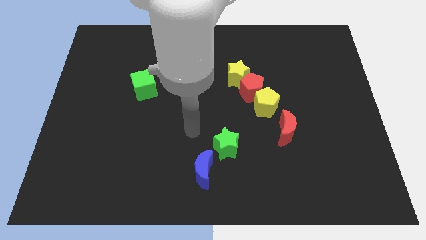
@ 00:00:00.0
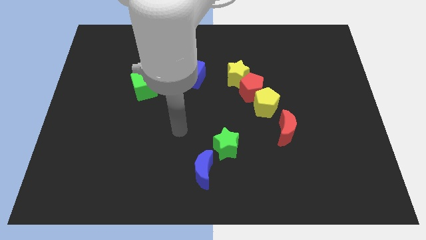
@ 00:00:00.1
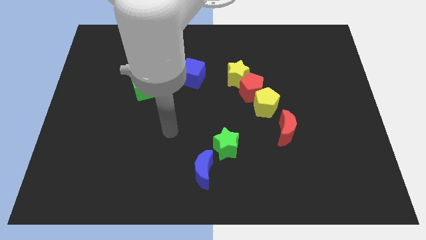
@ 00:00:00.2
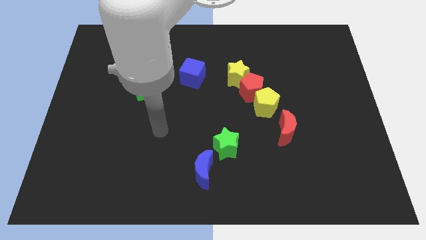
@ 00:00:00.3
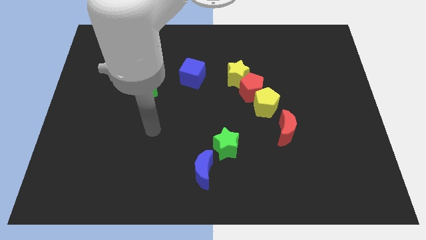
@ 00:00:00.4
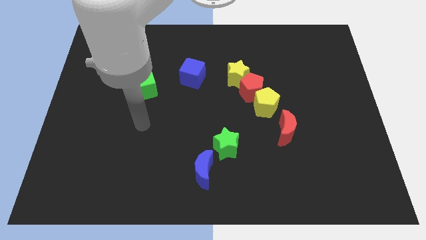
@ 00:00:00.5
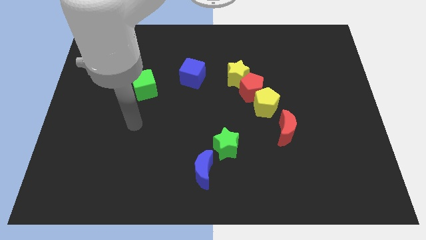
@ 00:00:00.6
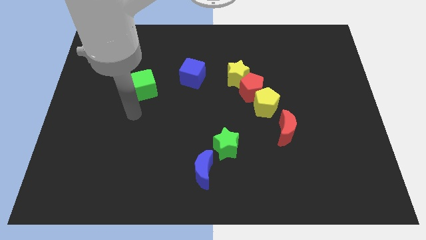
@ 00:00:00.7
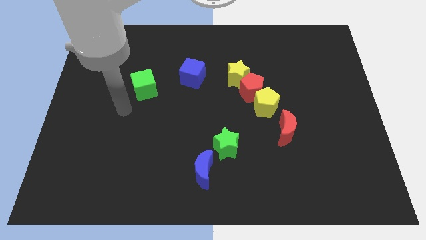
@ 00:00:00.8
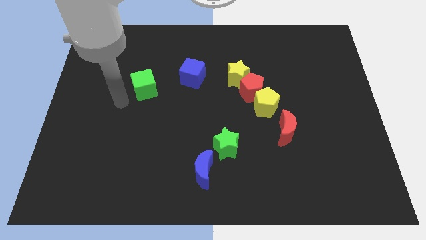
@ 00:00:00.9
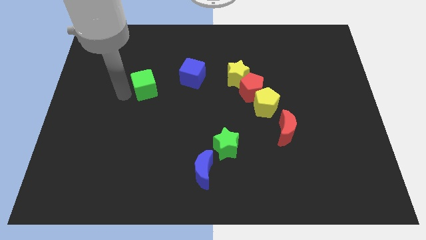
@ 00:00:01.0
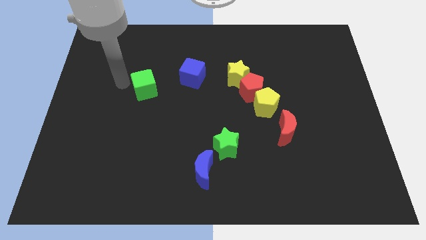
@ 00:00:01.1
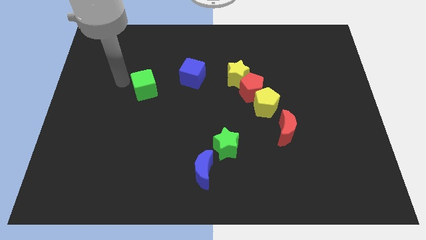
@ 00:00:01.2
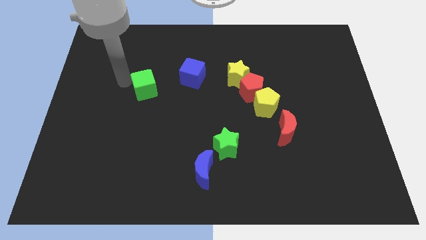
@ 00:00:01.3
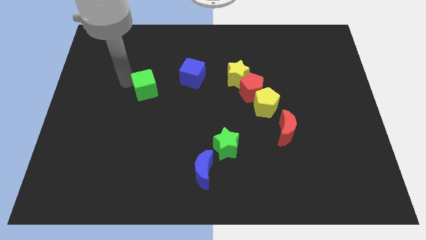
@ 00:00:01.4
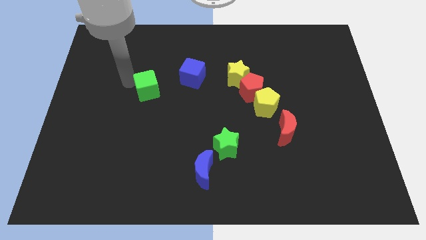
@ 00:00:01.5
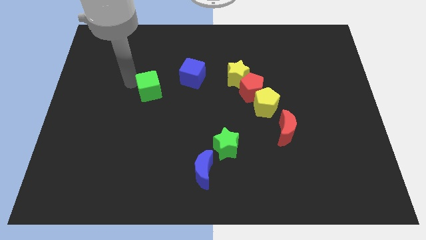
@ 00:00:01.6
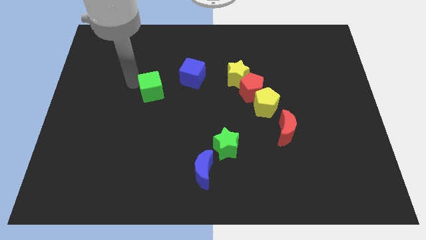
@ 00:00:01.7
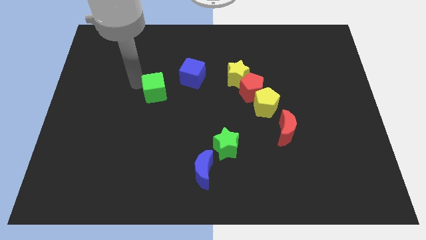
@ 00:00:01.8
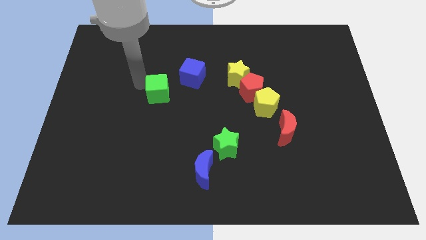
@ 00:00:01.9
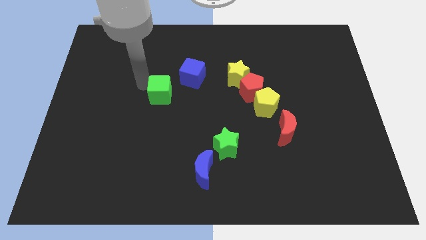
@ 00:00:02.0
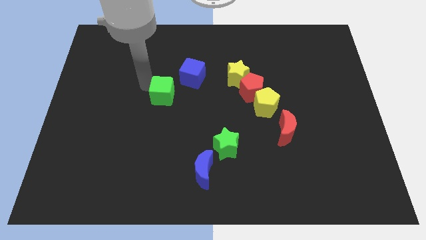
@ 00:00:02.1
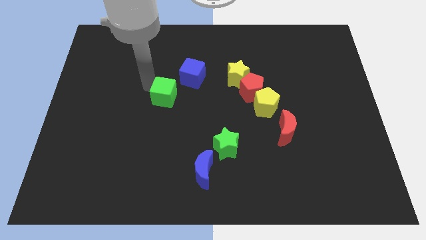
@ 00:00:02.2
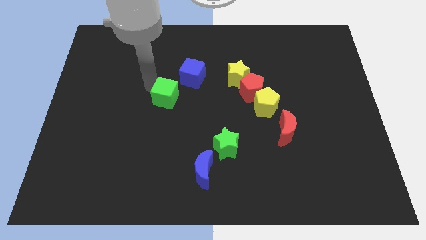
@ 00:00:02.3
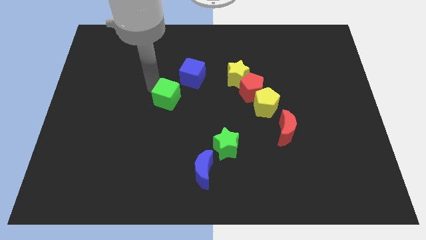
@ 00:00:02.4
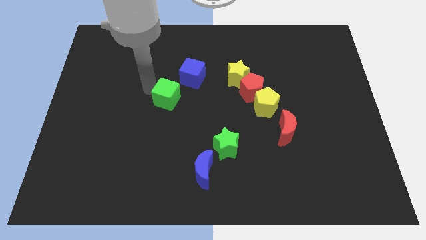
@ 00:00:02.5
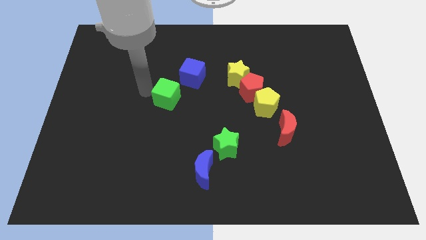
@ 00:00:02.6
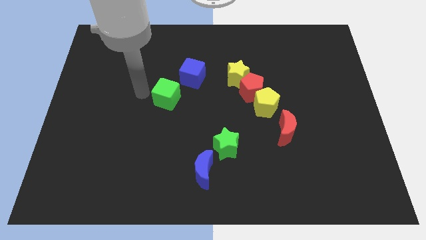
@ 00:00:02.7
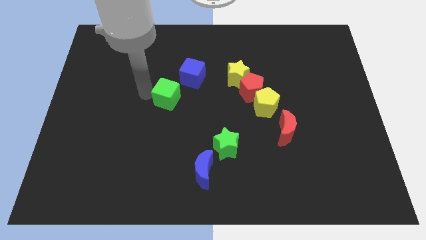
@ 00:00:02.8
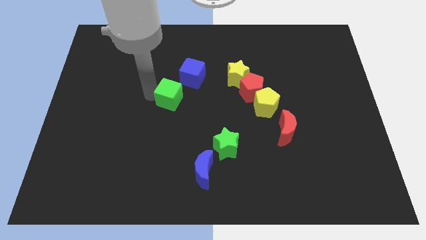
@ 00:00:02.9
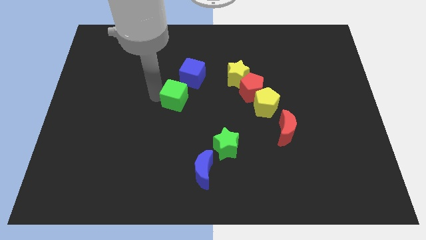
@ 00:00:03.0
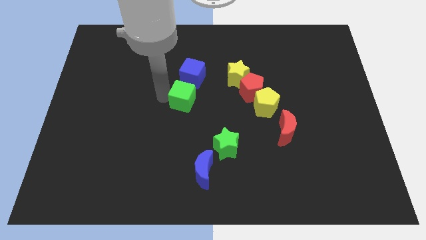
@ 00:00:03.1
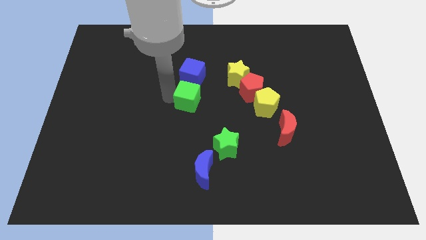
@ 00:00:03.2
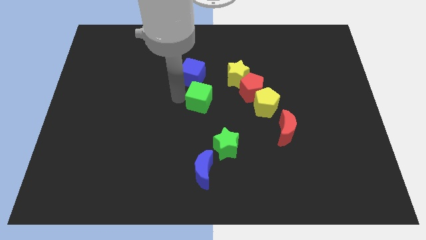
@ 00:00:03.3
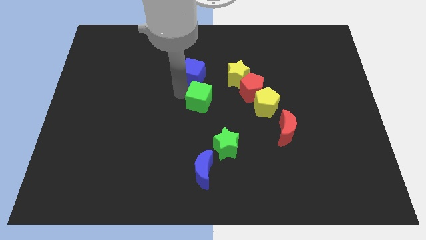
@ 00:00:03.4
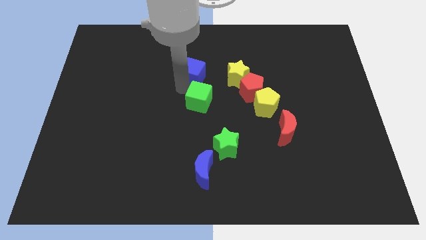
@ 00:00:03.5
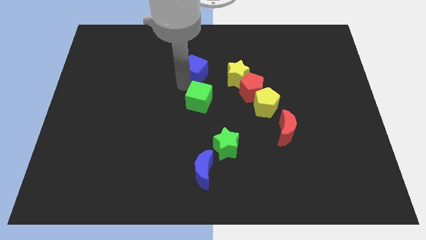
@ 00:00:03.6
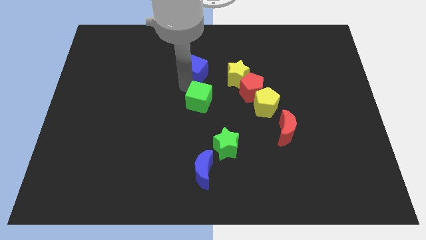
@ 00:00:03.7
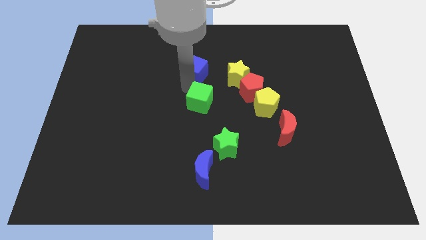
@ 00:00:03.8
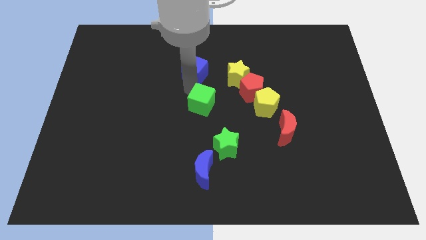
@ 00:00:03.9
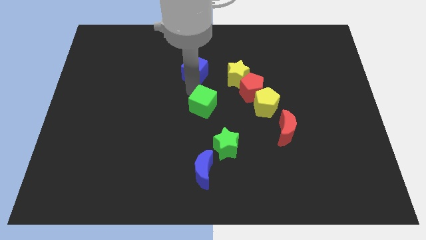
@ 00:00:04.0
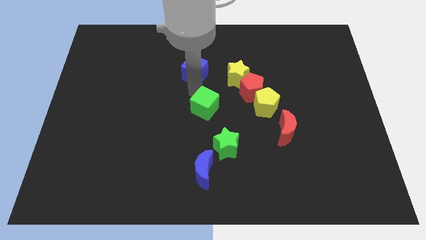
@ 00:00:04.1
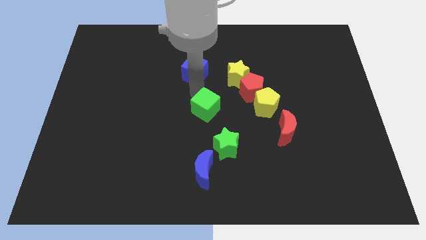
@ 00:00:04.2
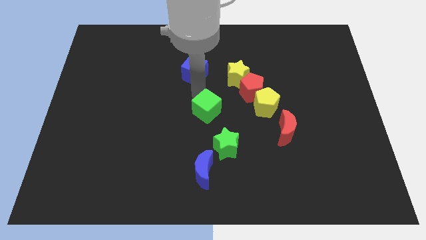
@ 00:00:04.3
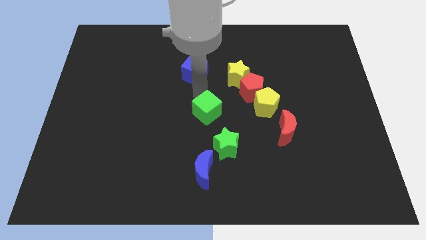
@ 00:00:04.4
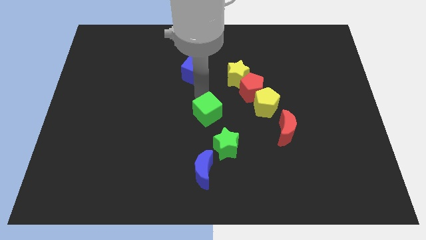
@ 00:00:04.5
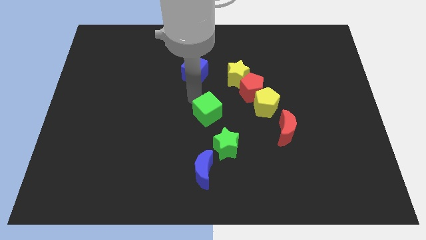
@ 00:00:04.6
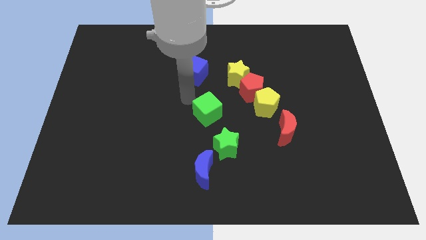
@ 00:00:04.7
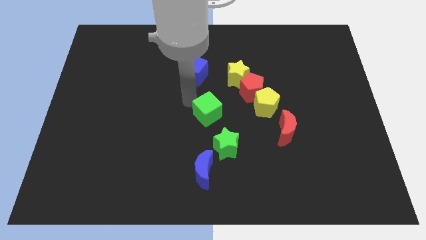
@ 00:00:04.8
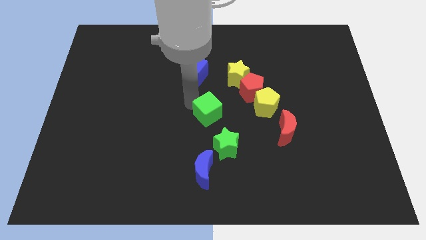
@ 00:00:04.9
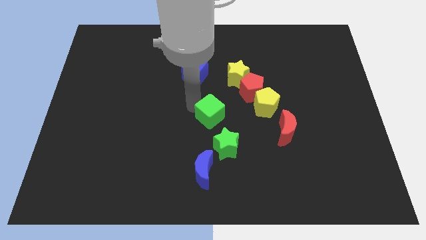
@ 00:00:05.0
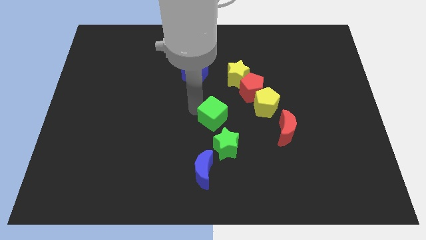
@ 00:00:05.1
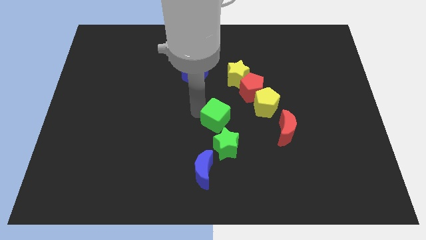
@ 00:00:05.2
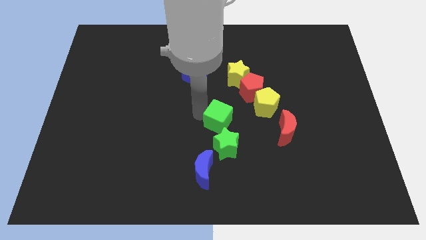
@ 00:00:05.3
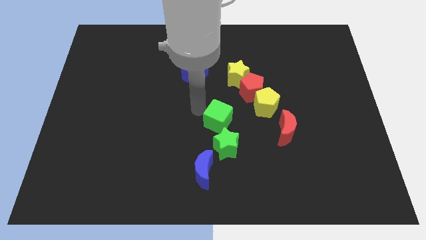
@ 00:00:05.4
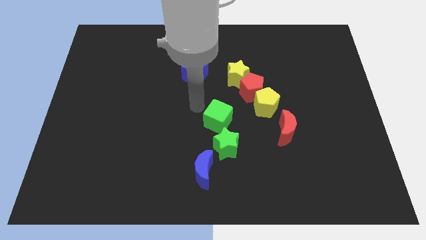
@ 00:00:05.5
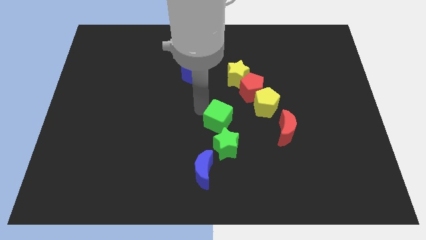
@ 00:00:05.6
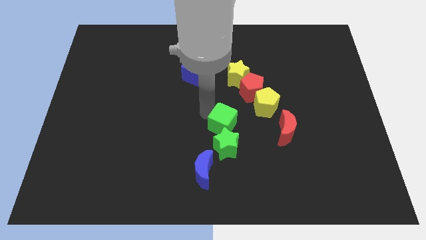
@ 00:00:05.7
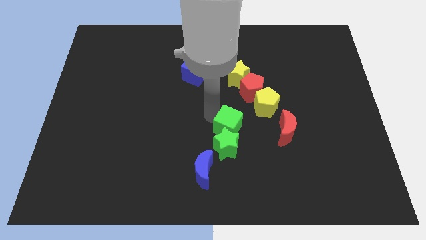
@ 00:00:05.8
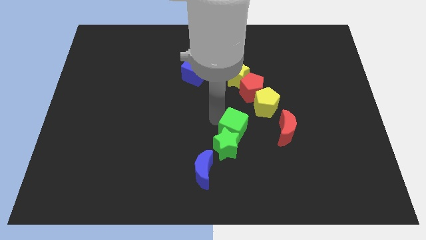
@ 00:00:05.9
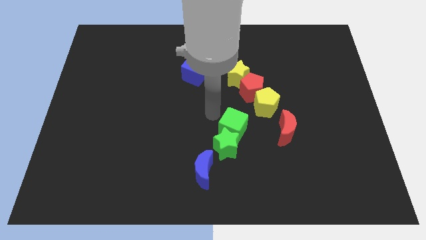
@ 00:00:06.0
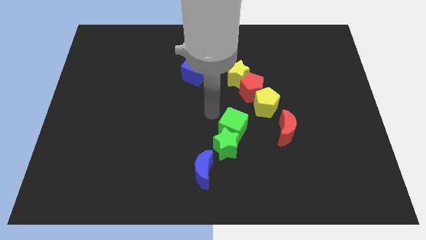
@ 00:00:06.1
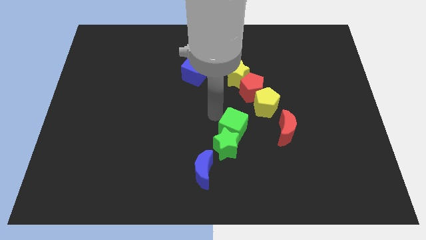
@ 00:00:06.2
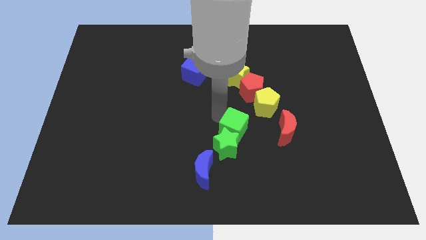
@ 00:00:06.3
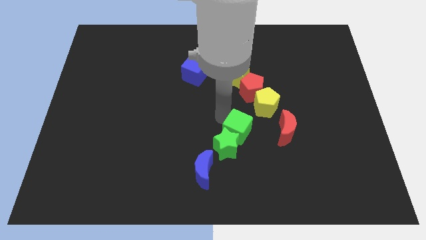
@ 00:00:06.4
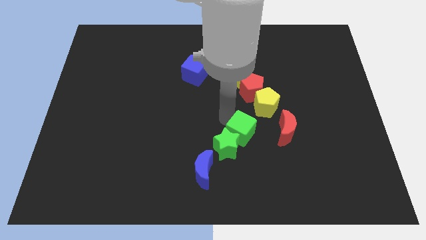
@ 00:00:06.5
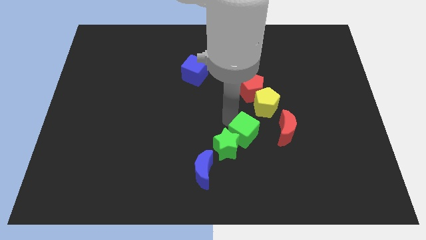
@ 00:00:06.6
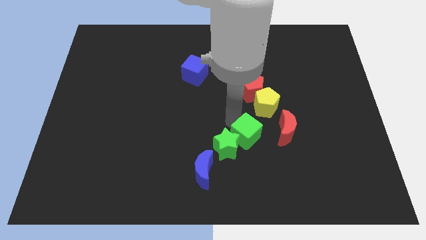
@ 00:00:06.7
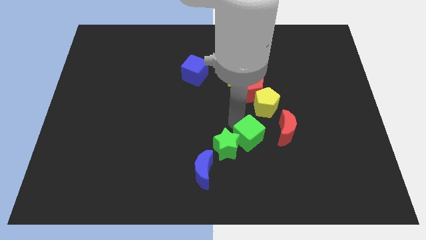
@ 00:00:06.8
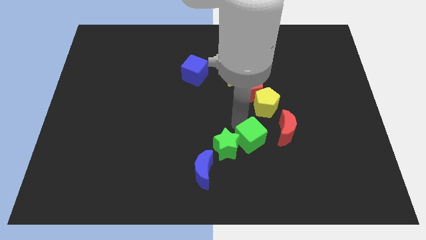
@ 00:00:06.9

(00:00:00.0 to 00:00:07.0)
put the green cube to the bottom left of the red moon

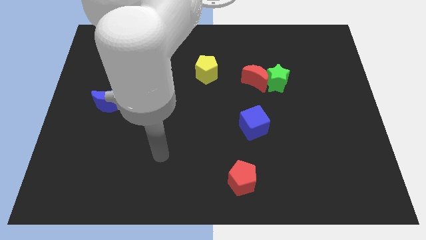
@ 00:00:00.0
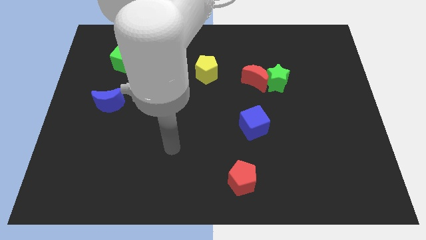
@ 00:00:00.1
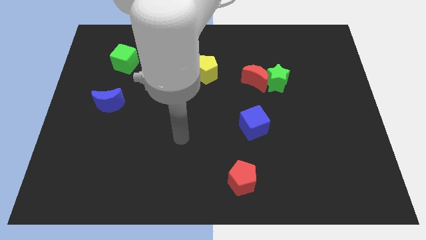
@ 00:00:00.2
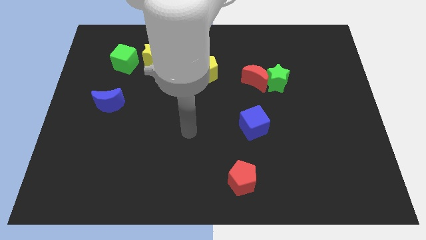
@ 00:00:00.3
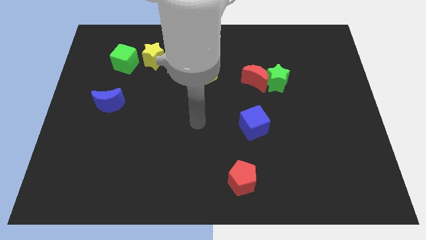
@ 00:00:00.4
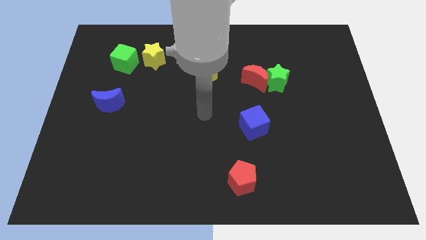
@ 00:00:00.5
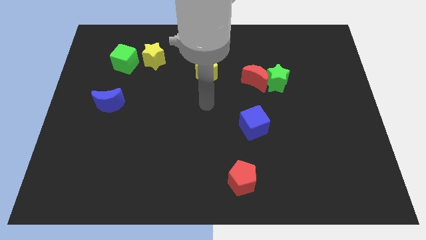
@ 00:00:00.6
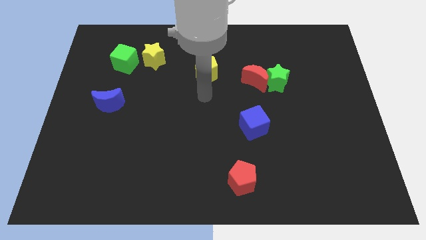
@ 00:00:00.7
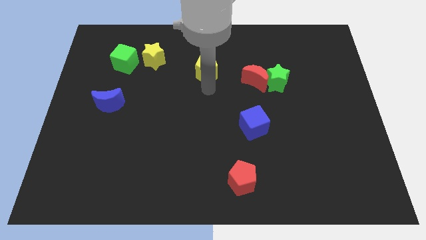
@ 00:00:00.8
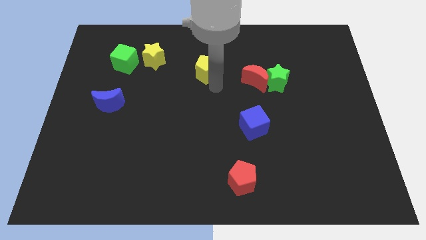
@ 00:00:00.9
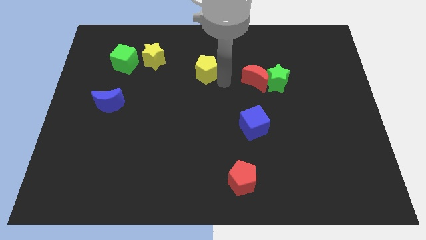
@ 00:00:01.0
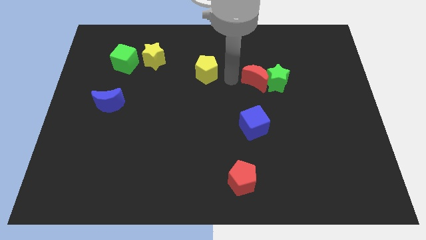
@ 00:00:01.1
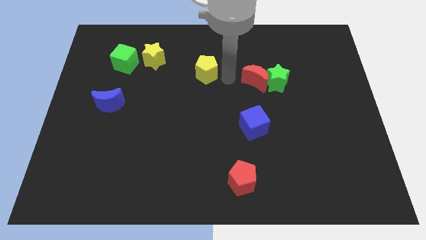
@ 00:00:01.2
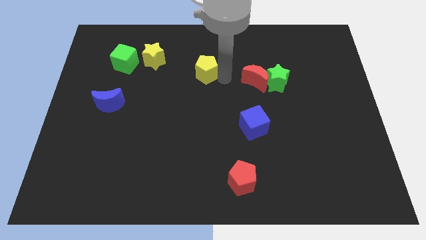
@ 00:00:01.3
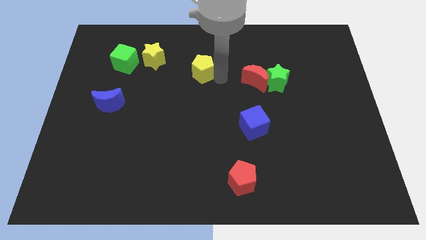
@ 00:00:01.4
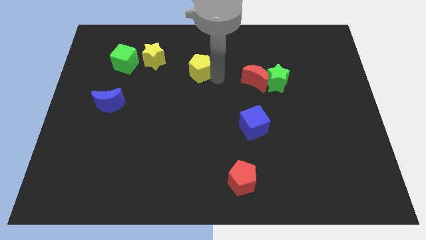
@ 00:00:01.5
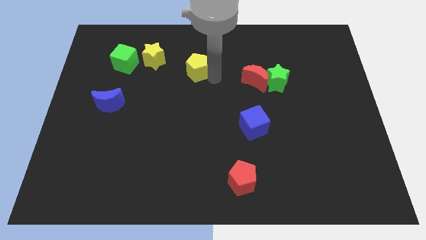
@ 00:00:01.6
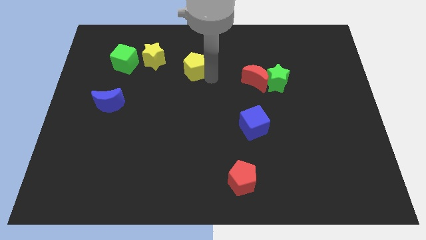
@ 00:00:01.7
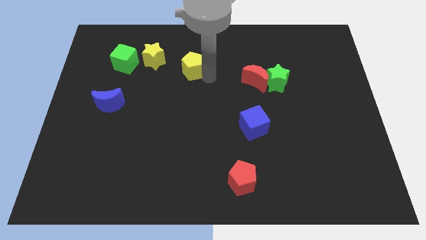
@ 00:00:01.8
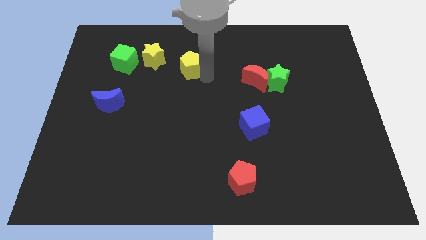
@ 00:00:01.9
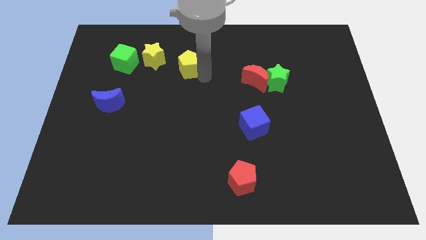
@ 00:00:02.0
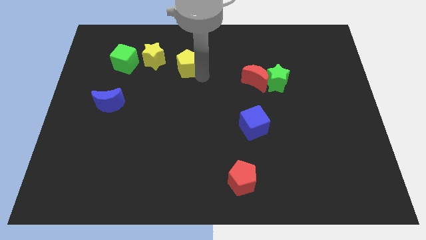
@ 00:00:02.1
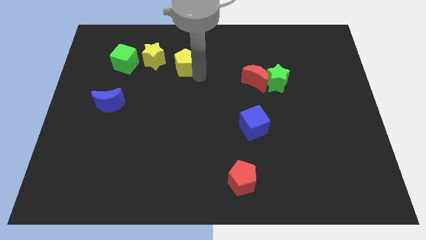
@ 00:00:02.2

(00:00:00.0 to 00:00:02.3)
push the yellow pentagon right of the green cube
